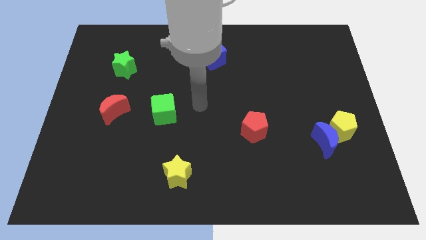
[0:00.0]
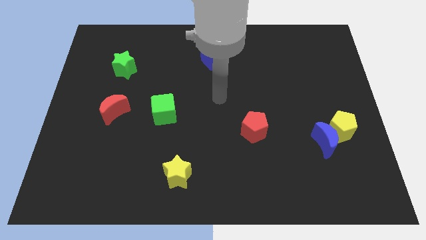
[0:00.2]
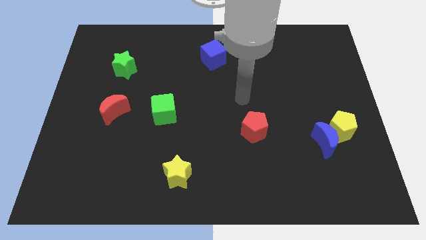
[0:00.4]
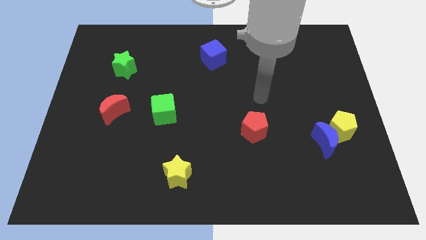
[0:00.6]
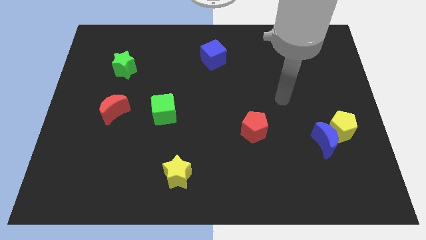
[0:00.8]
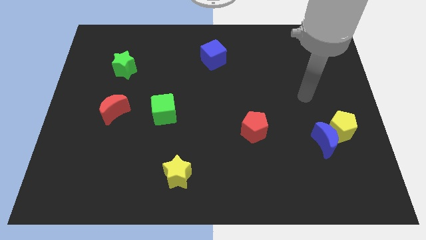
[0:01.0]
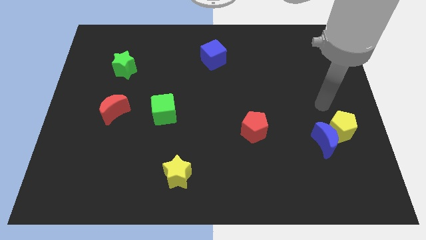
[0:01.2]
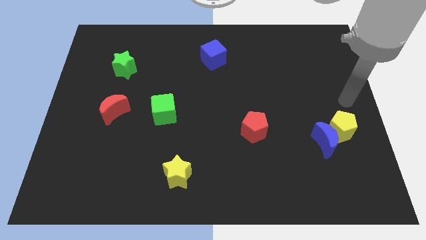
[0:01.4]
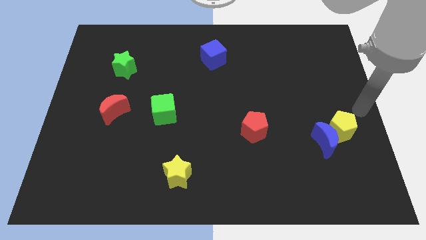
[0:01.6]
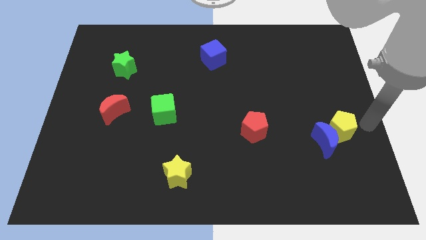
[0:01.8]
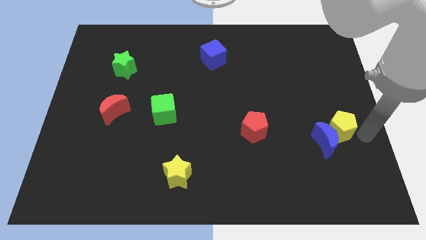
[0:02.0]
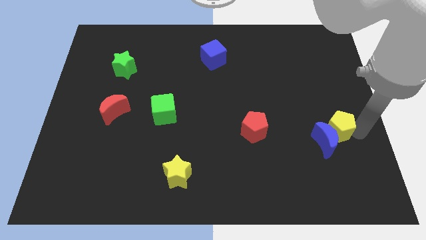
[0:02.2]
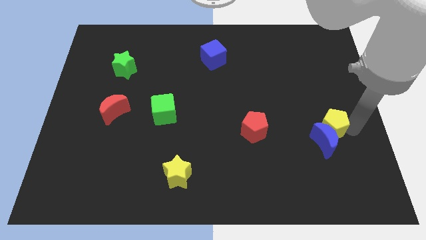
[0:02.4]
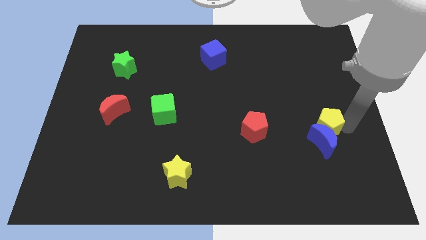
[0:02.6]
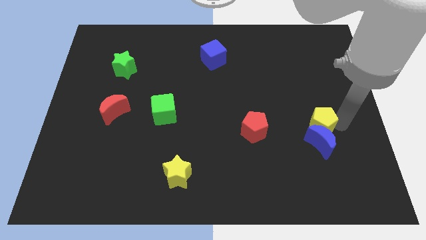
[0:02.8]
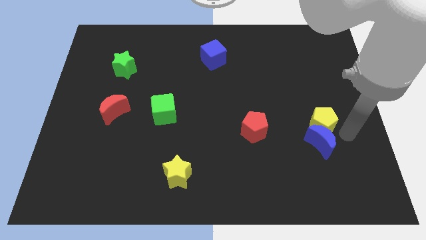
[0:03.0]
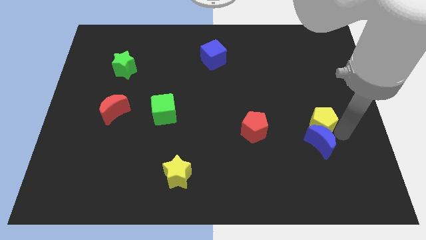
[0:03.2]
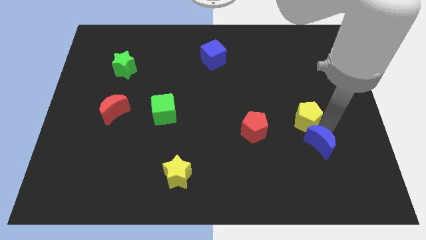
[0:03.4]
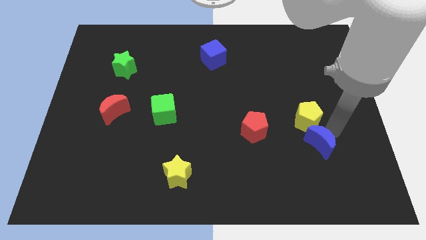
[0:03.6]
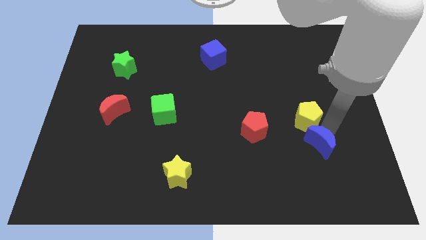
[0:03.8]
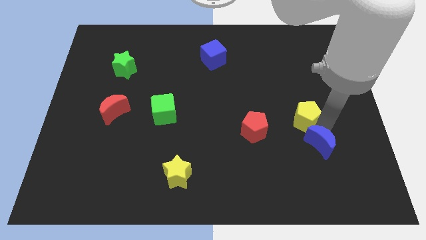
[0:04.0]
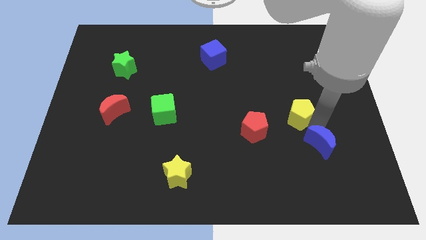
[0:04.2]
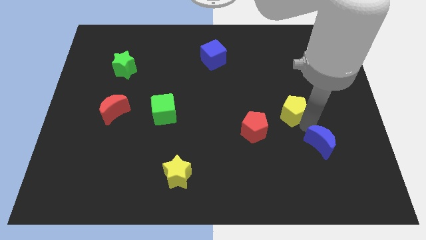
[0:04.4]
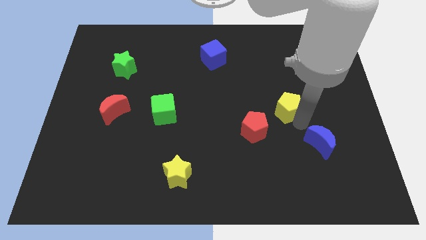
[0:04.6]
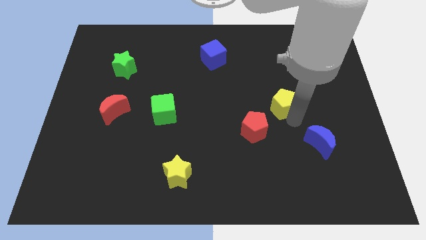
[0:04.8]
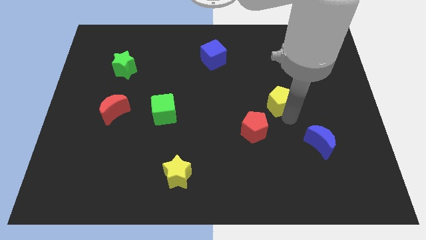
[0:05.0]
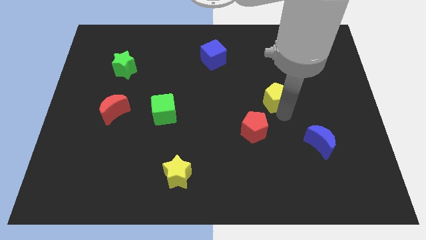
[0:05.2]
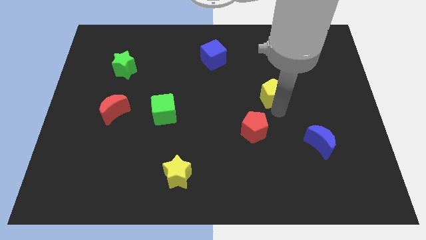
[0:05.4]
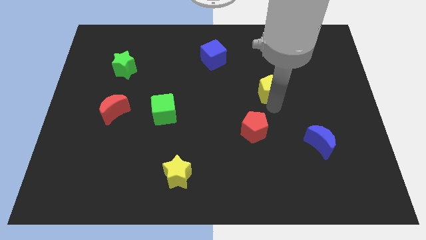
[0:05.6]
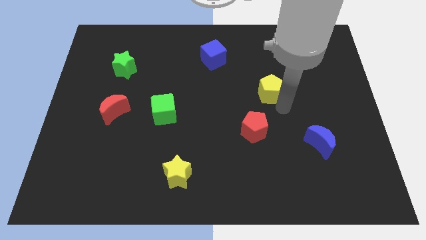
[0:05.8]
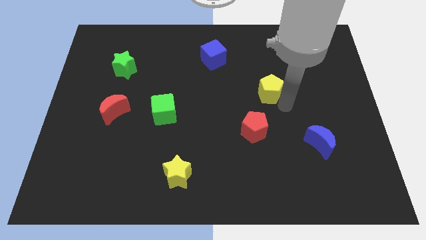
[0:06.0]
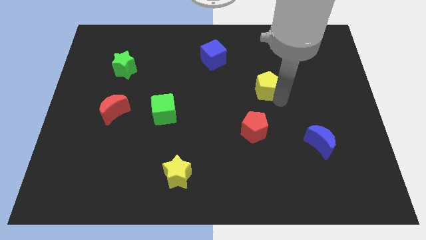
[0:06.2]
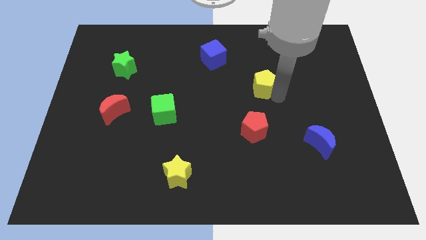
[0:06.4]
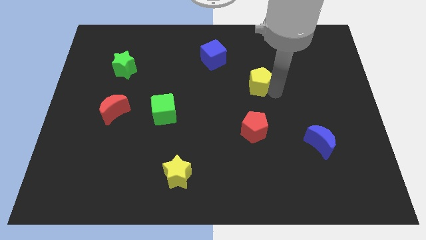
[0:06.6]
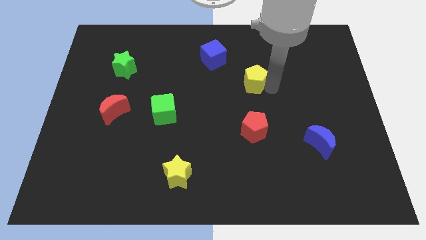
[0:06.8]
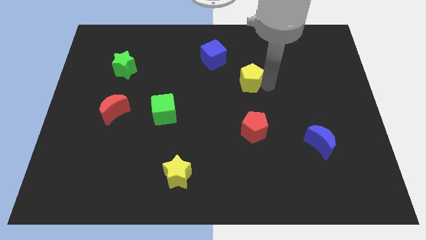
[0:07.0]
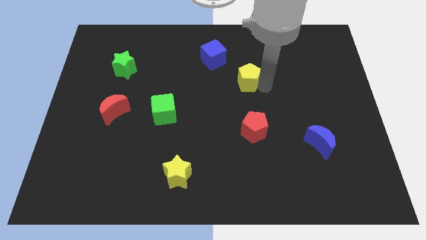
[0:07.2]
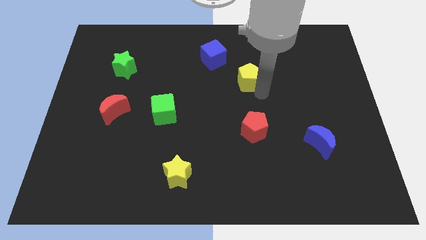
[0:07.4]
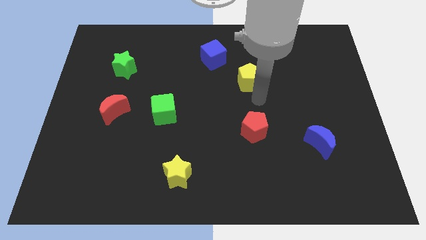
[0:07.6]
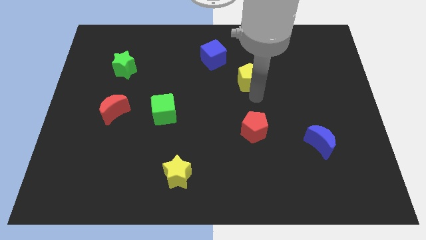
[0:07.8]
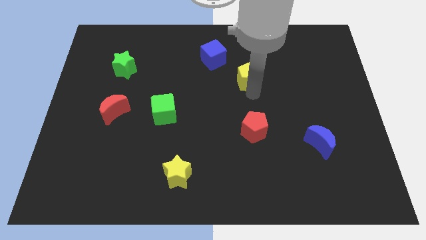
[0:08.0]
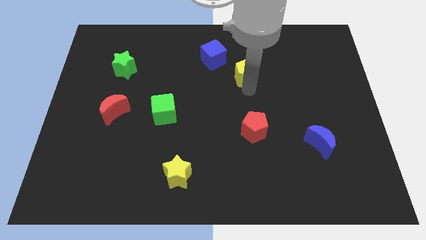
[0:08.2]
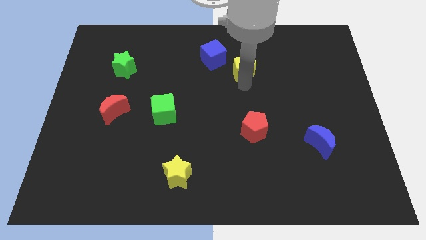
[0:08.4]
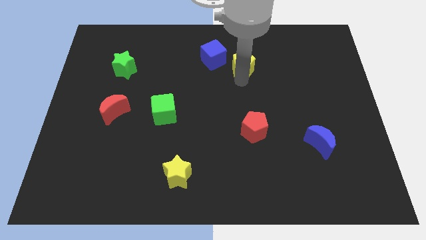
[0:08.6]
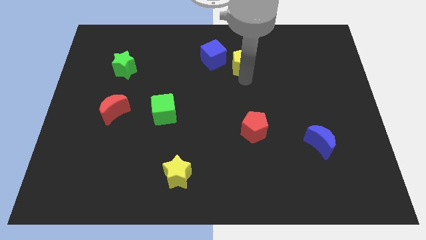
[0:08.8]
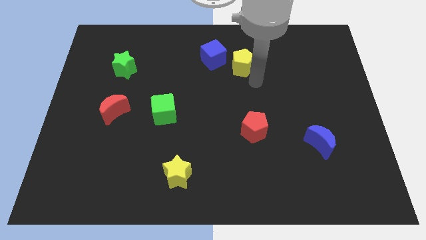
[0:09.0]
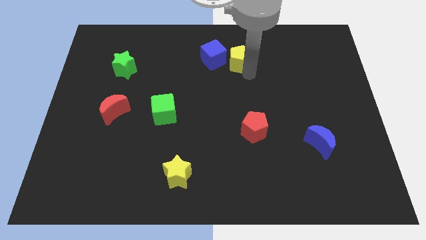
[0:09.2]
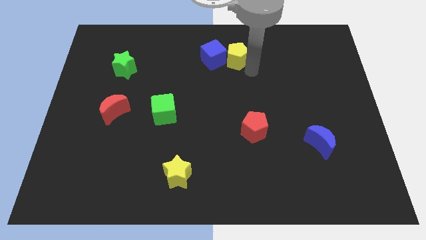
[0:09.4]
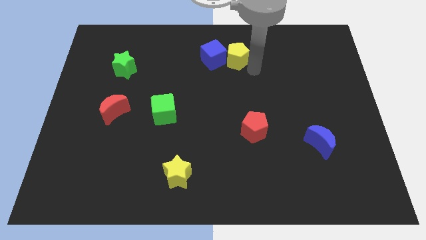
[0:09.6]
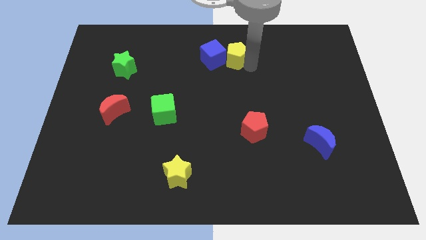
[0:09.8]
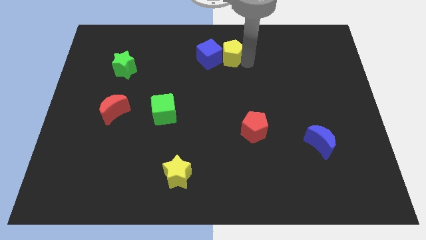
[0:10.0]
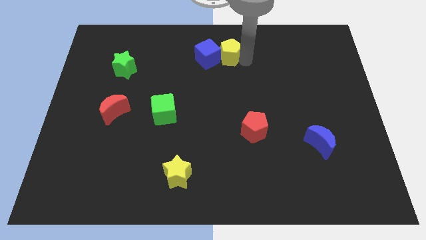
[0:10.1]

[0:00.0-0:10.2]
push the yellow pentagon to the top side

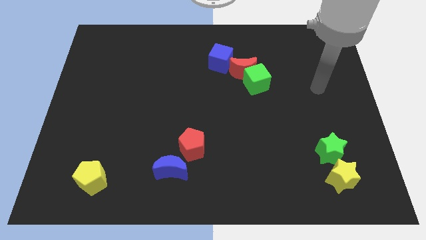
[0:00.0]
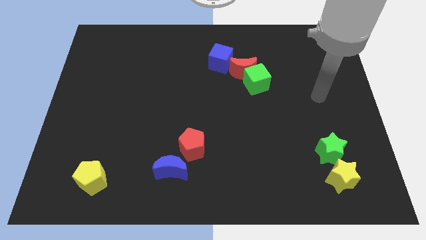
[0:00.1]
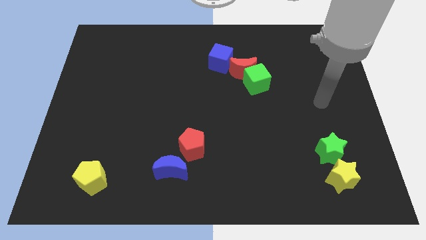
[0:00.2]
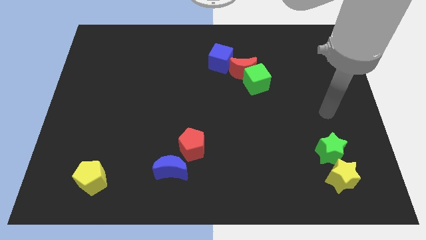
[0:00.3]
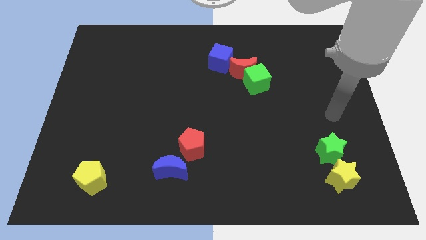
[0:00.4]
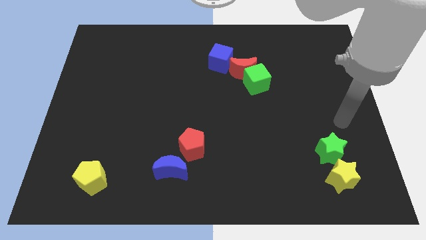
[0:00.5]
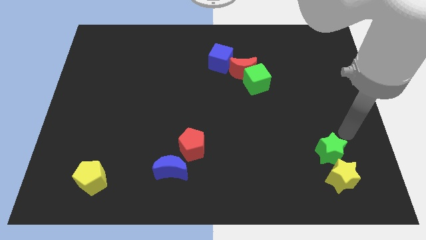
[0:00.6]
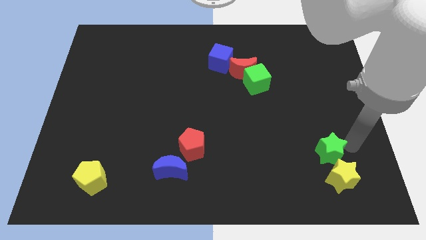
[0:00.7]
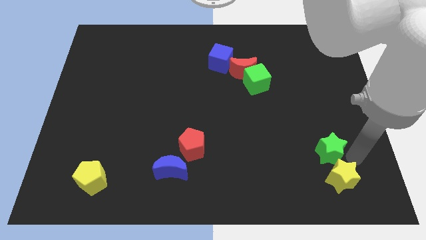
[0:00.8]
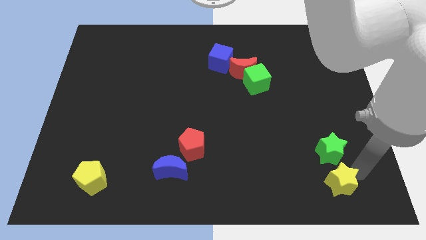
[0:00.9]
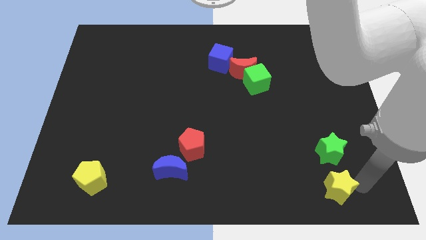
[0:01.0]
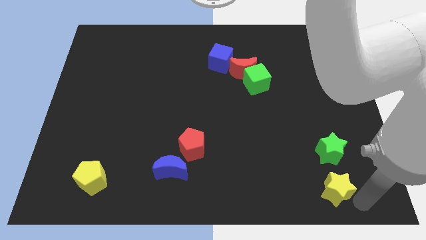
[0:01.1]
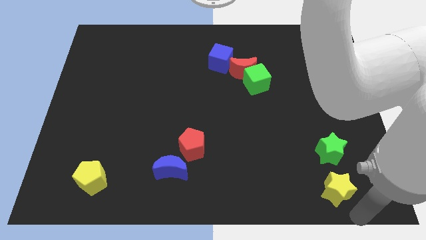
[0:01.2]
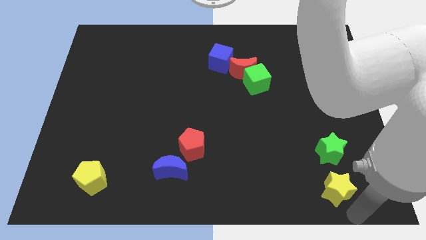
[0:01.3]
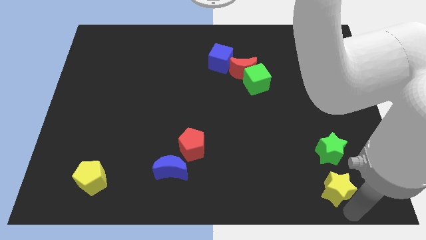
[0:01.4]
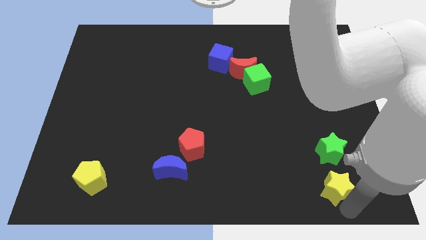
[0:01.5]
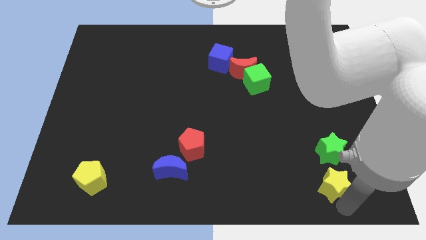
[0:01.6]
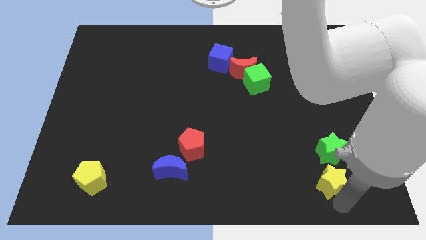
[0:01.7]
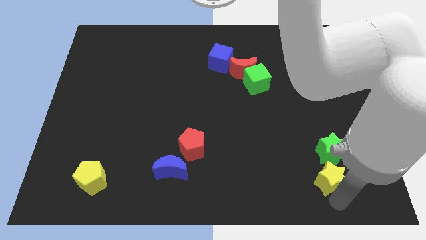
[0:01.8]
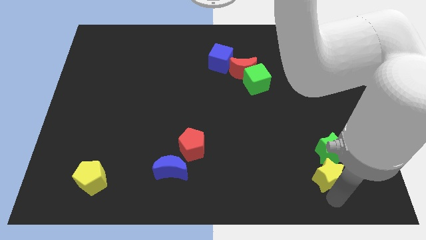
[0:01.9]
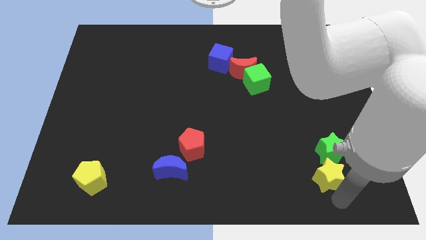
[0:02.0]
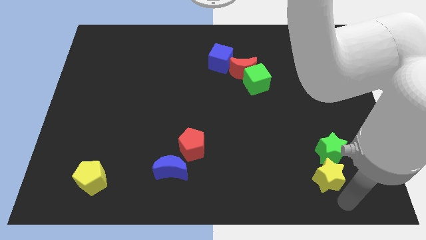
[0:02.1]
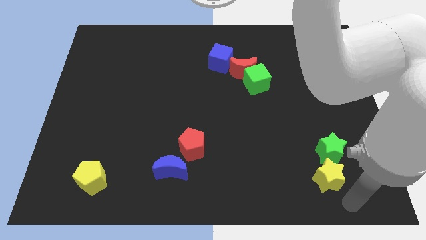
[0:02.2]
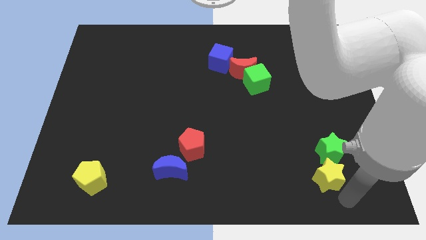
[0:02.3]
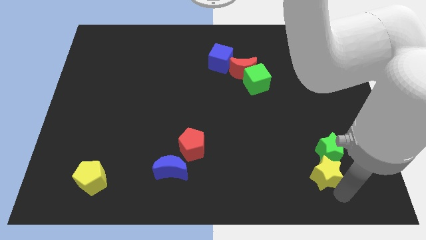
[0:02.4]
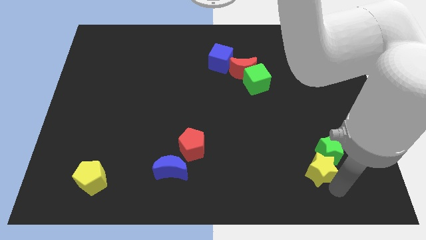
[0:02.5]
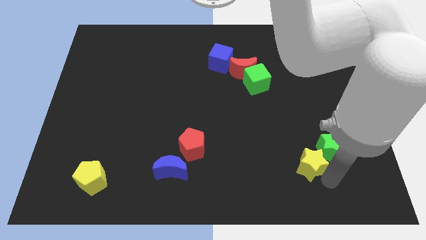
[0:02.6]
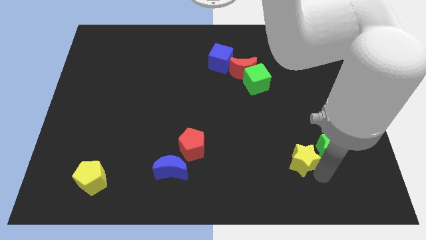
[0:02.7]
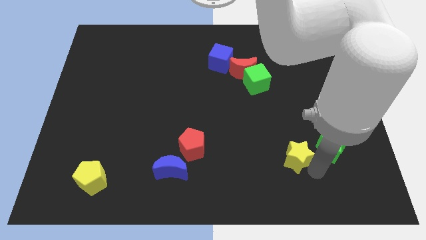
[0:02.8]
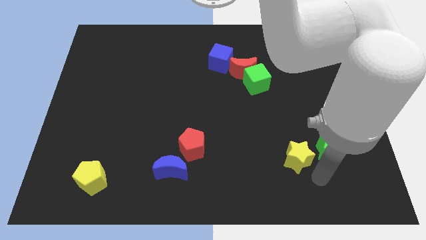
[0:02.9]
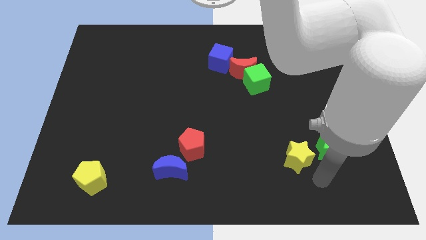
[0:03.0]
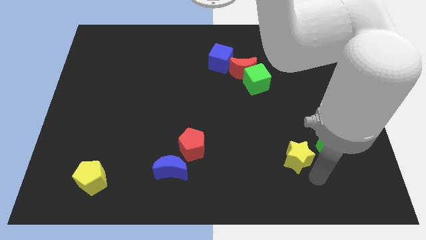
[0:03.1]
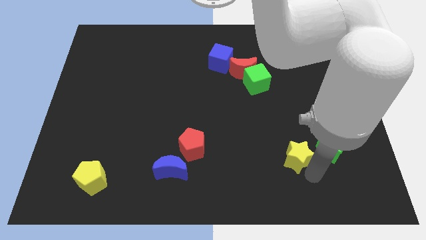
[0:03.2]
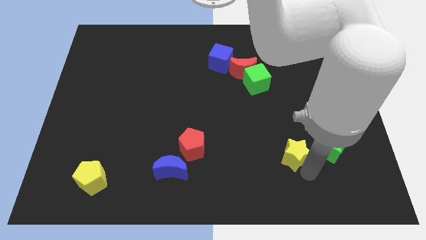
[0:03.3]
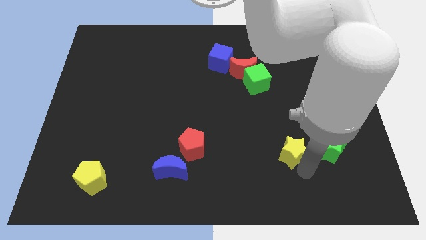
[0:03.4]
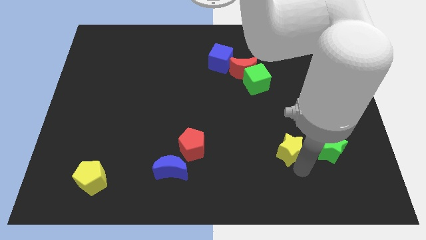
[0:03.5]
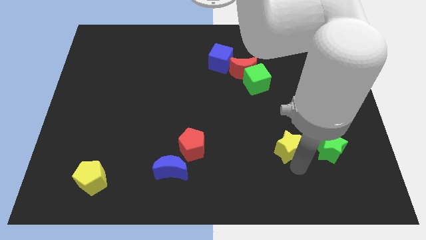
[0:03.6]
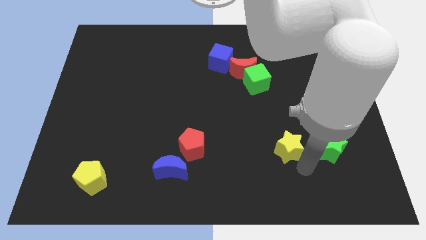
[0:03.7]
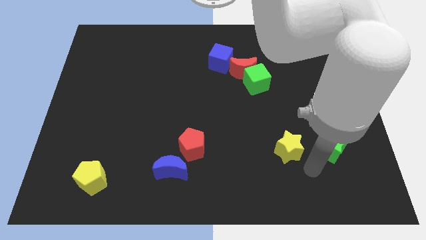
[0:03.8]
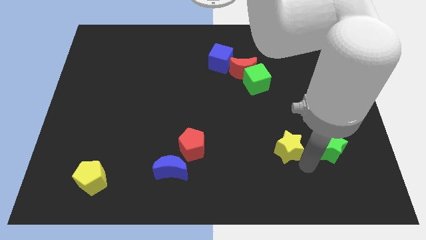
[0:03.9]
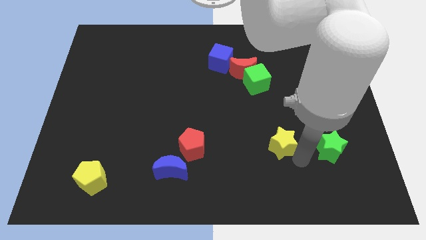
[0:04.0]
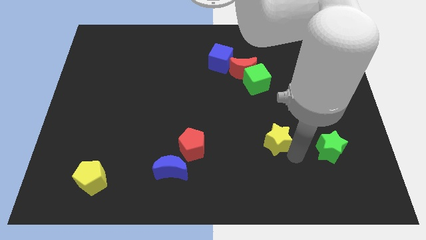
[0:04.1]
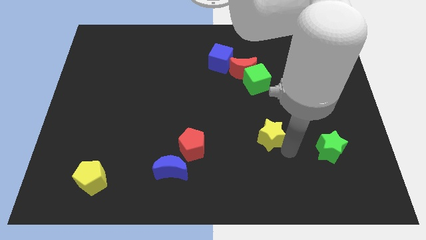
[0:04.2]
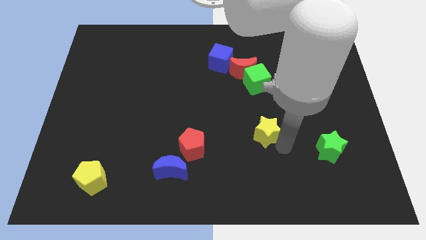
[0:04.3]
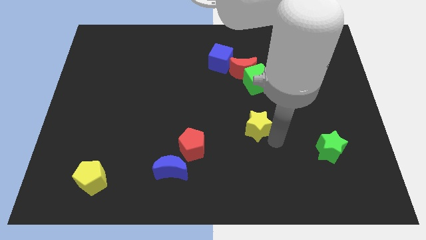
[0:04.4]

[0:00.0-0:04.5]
move the yellow star to the middle
